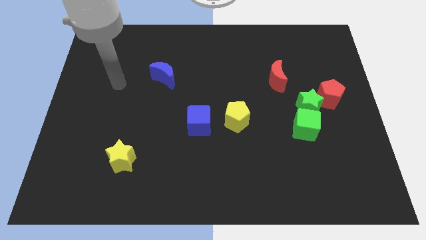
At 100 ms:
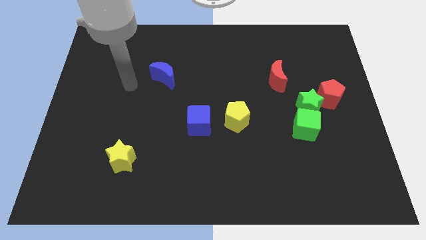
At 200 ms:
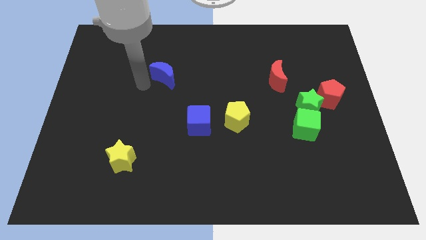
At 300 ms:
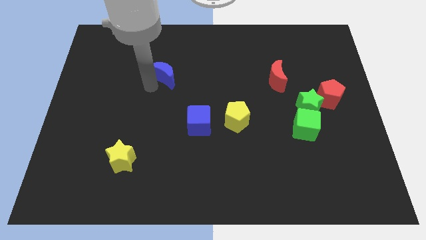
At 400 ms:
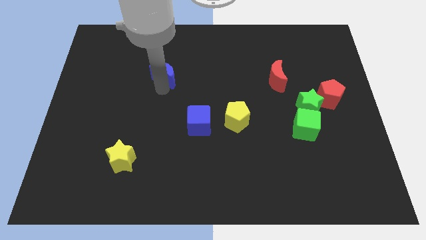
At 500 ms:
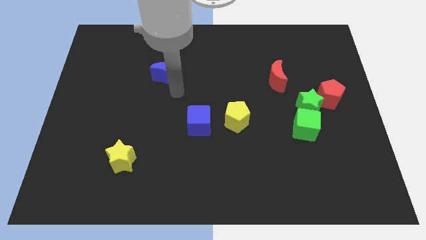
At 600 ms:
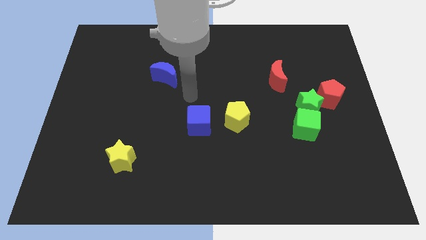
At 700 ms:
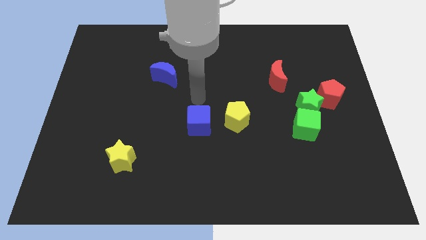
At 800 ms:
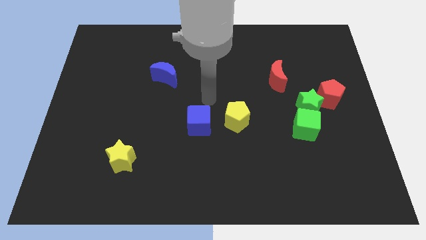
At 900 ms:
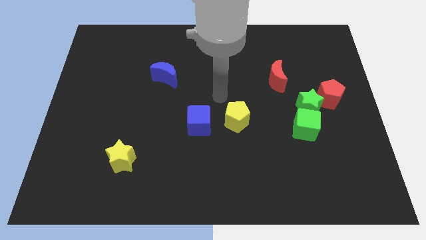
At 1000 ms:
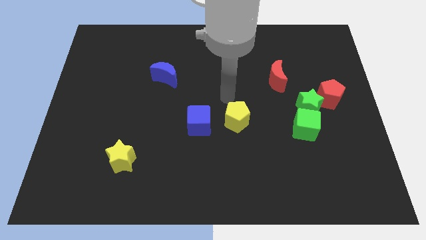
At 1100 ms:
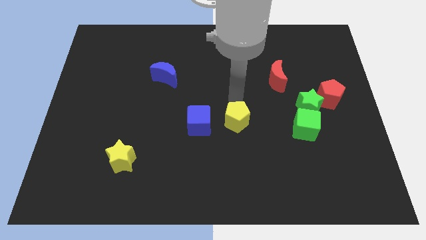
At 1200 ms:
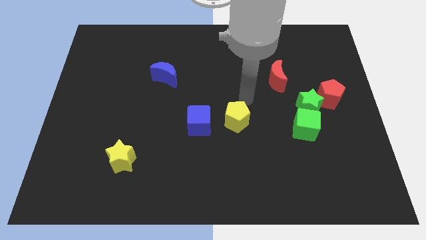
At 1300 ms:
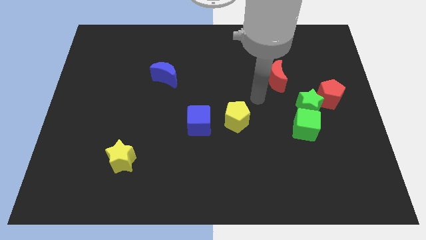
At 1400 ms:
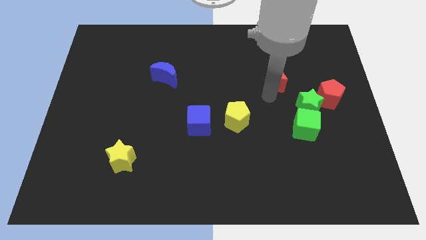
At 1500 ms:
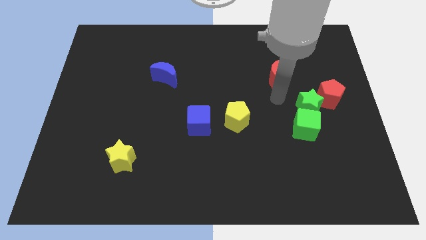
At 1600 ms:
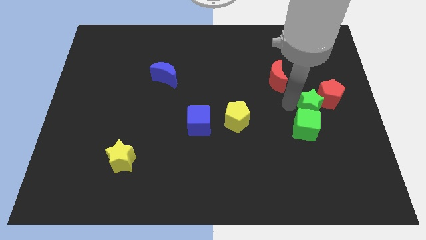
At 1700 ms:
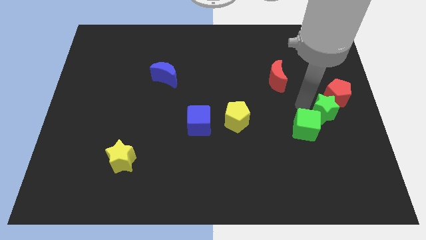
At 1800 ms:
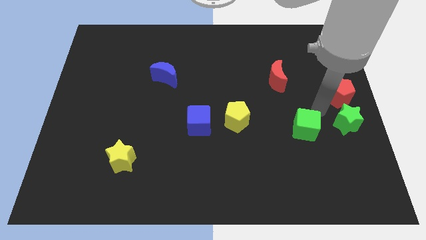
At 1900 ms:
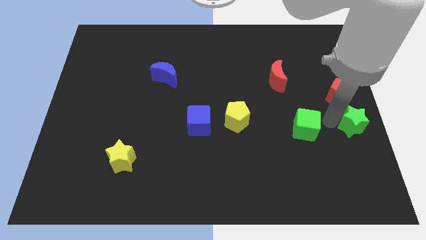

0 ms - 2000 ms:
pull the green cube apart from the green star

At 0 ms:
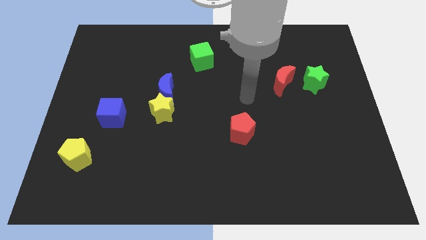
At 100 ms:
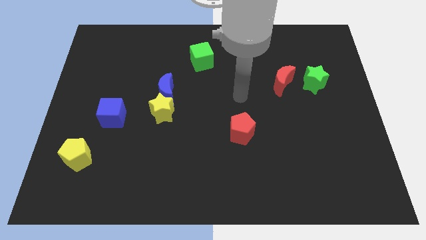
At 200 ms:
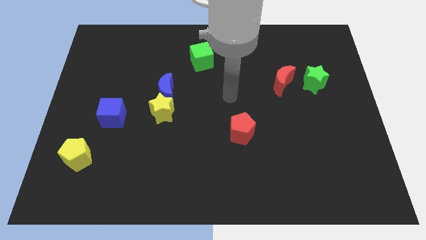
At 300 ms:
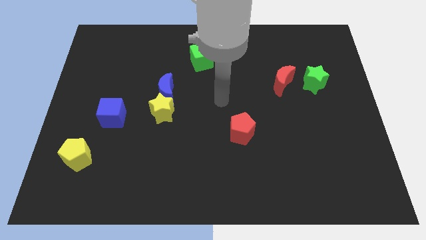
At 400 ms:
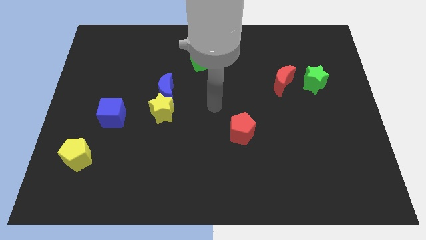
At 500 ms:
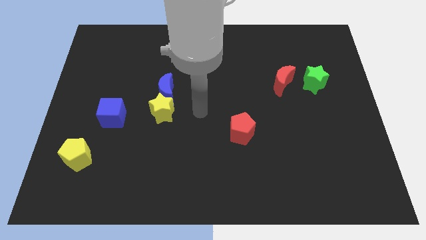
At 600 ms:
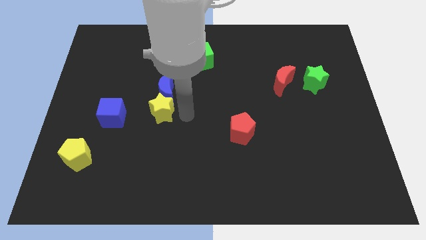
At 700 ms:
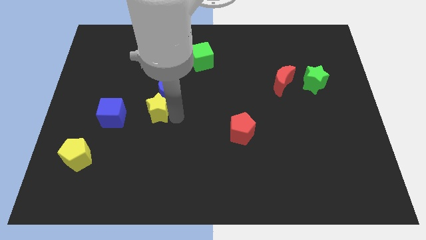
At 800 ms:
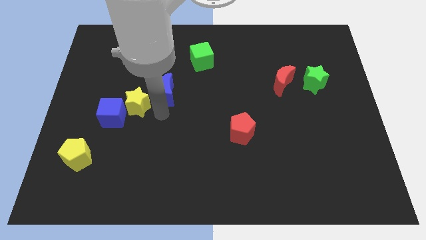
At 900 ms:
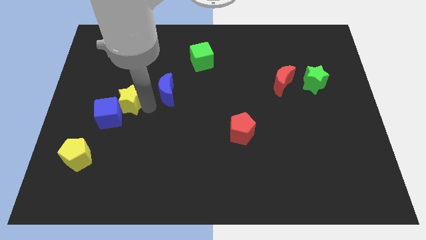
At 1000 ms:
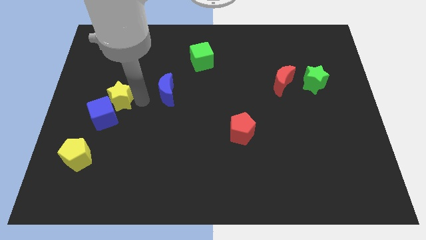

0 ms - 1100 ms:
move the blue moon away from the yellow star

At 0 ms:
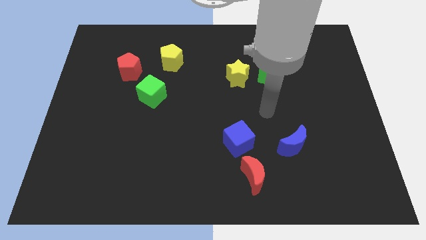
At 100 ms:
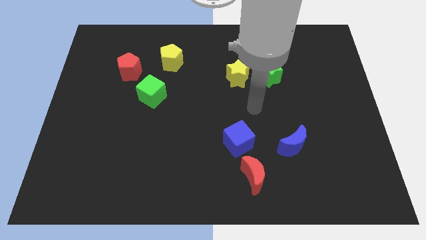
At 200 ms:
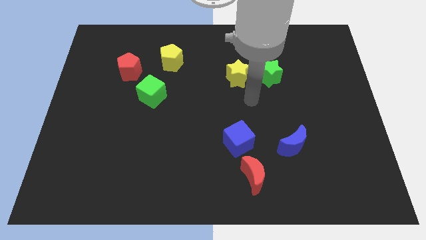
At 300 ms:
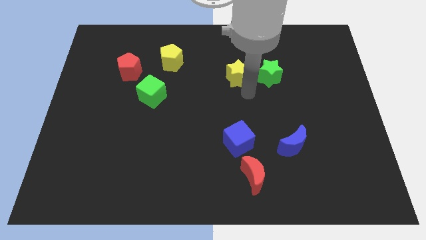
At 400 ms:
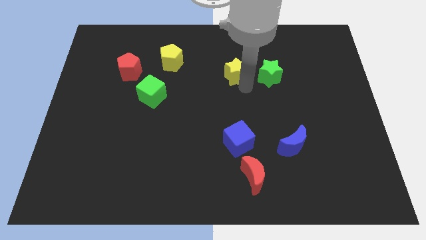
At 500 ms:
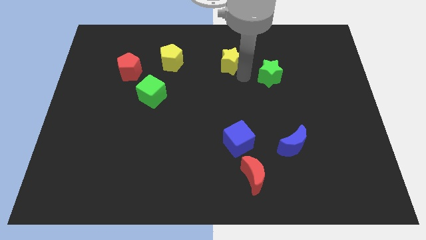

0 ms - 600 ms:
pull the green star apart from the yellow star

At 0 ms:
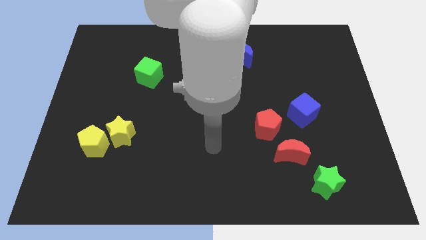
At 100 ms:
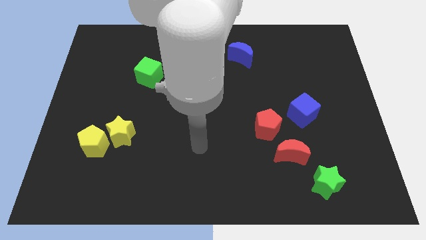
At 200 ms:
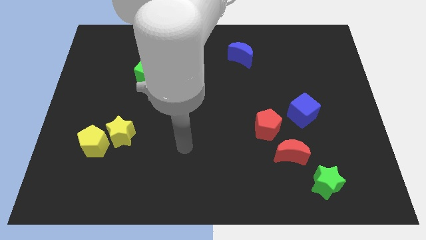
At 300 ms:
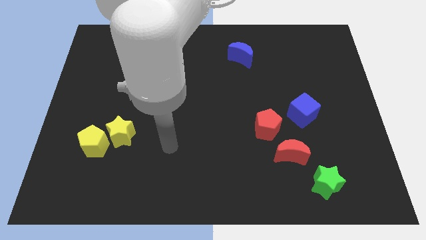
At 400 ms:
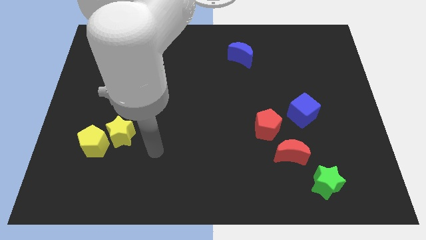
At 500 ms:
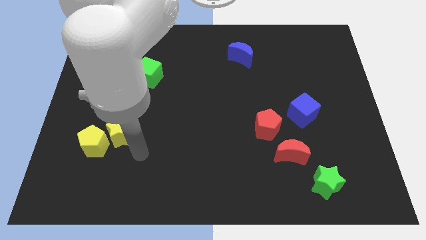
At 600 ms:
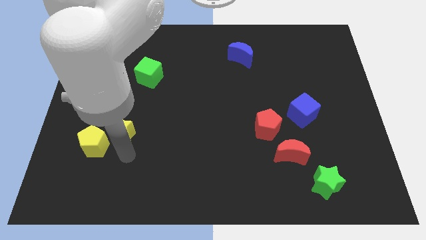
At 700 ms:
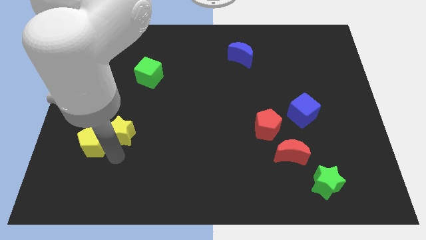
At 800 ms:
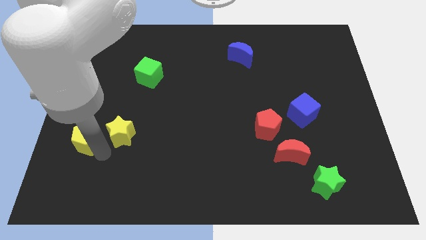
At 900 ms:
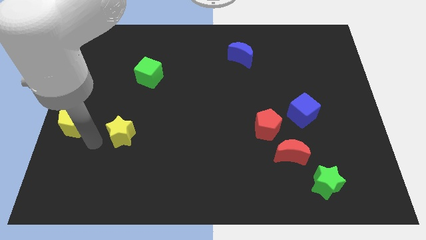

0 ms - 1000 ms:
move the yellow star away from the yellow pentagon

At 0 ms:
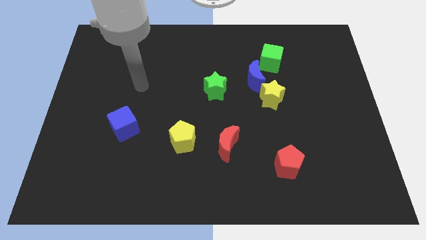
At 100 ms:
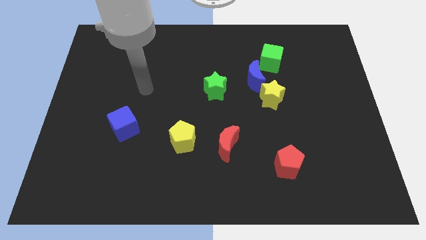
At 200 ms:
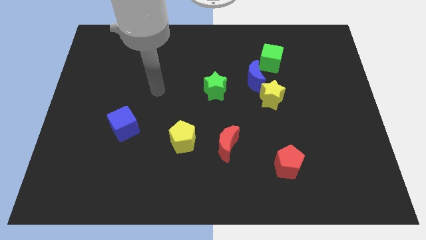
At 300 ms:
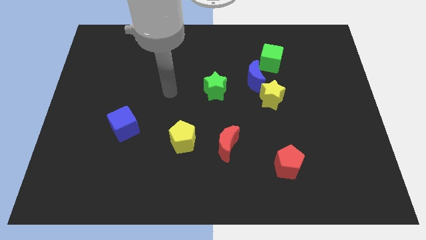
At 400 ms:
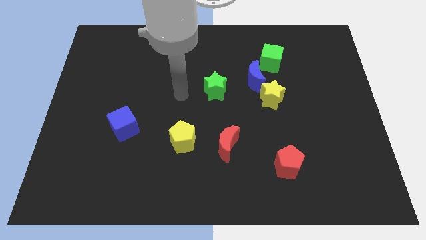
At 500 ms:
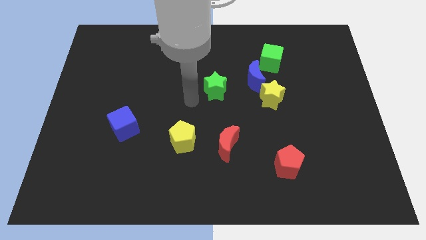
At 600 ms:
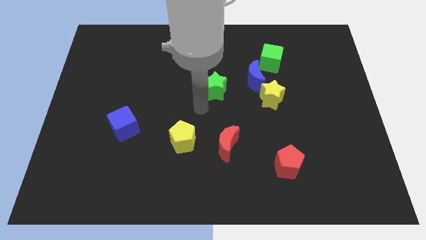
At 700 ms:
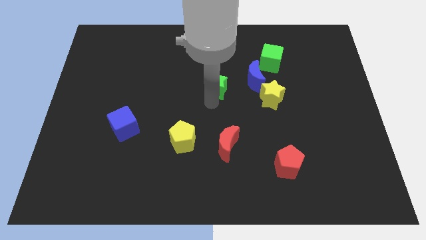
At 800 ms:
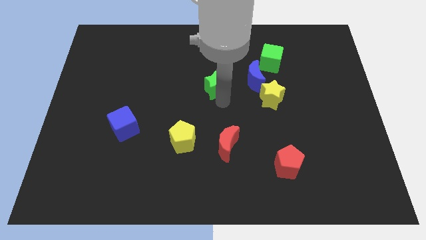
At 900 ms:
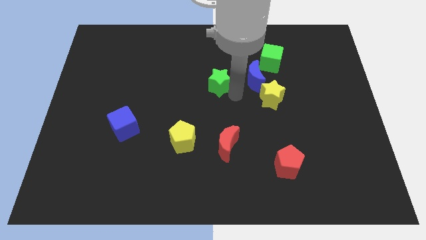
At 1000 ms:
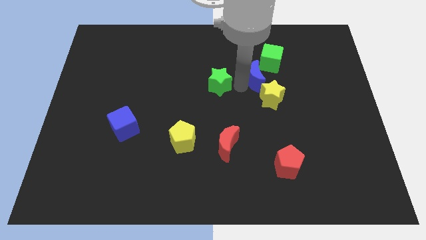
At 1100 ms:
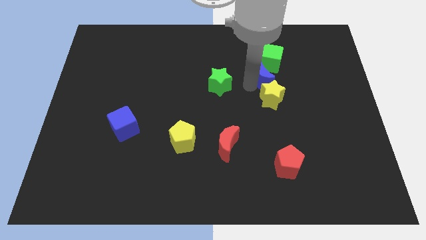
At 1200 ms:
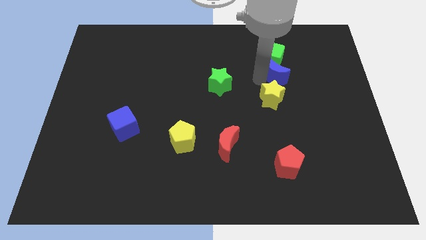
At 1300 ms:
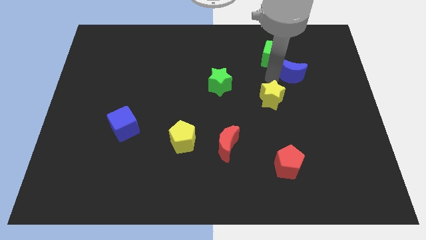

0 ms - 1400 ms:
separate the yellow star from the blue moon

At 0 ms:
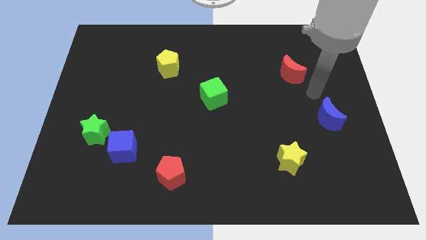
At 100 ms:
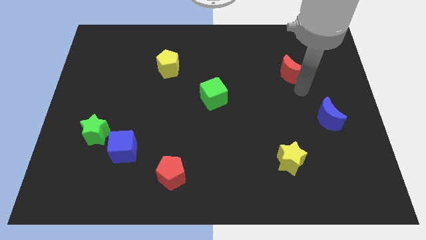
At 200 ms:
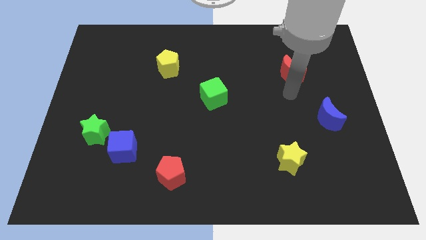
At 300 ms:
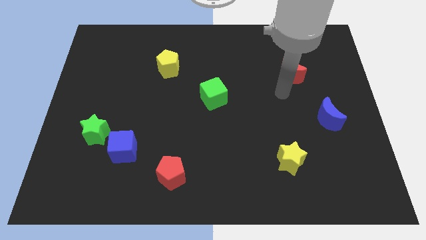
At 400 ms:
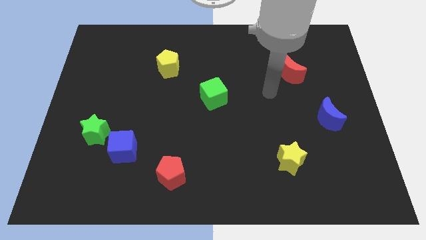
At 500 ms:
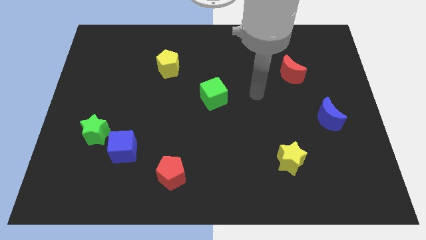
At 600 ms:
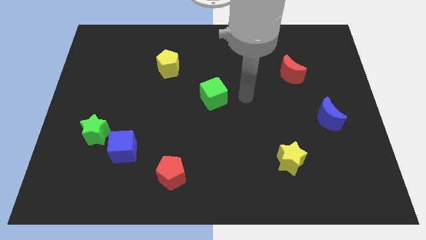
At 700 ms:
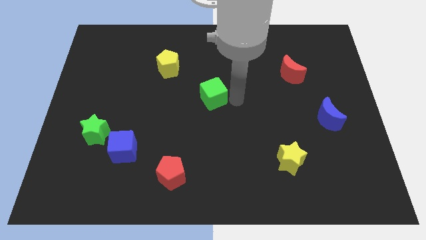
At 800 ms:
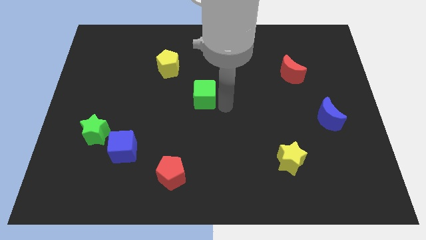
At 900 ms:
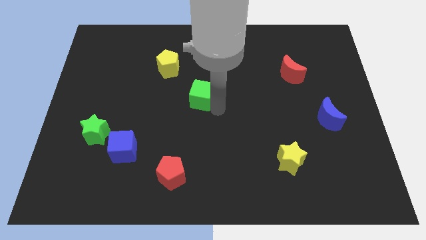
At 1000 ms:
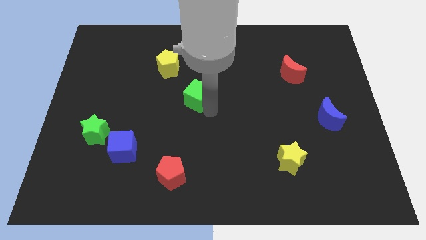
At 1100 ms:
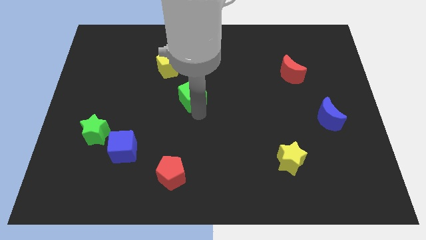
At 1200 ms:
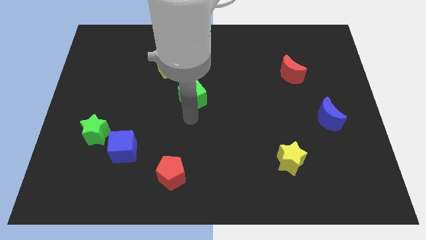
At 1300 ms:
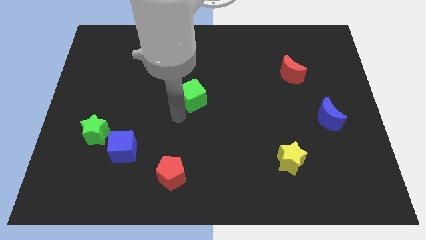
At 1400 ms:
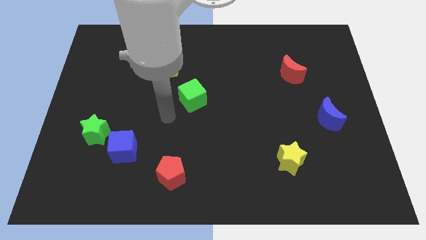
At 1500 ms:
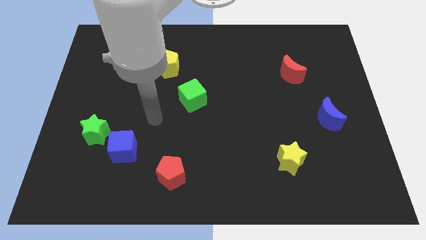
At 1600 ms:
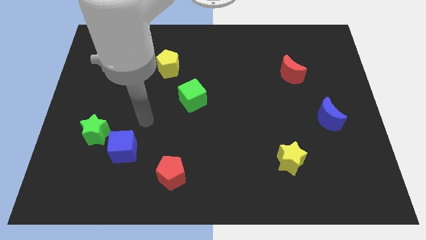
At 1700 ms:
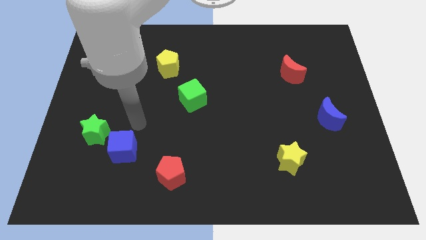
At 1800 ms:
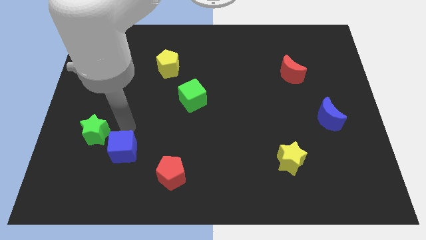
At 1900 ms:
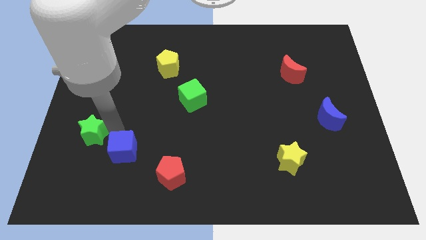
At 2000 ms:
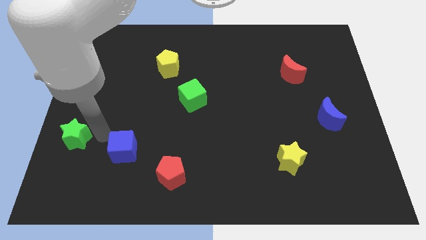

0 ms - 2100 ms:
pull the blue cube apart from the green star

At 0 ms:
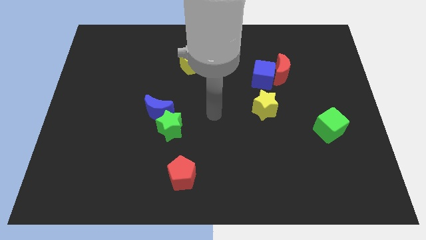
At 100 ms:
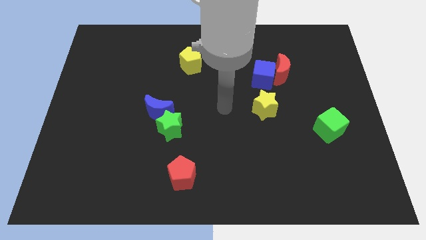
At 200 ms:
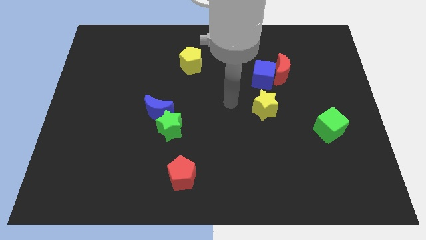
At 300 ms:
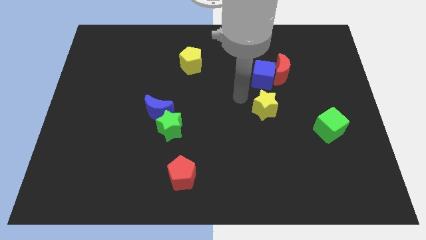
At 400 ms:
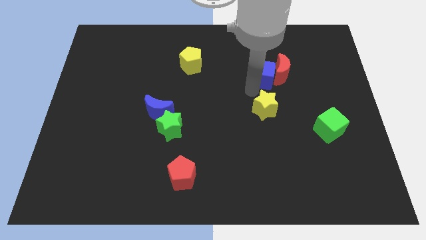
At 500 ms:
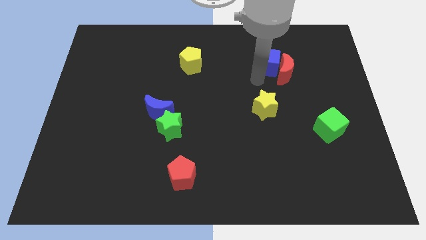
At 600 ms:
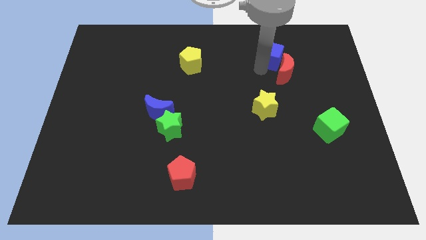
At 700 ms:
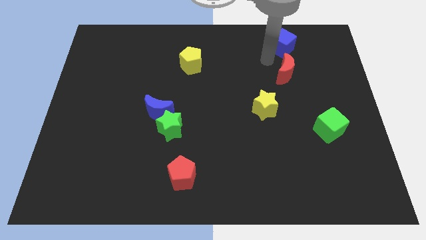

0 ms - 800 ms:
pull the red moon apart from the blue cube

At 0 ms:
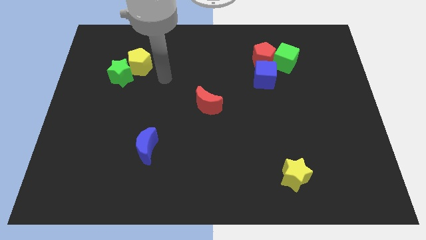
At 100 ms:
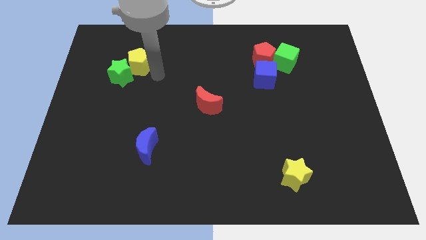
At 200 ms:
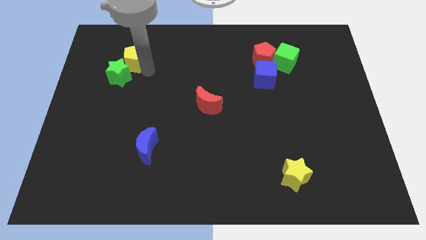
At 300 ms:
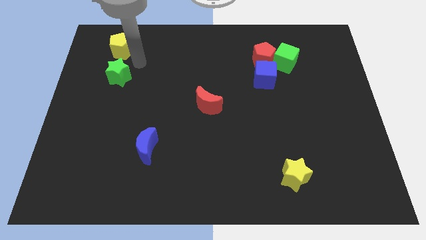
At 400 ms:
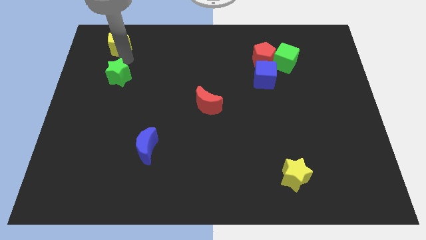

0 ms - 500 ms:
move the green star away from the yellow pentagon
